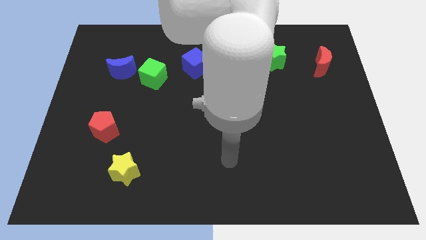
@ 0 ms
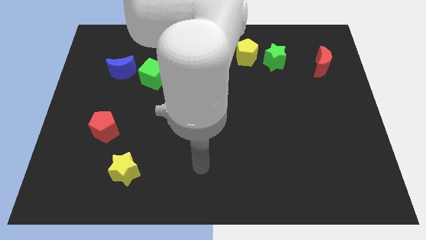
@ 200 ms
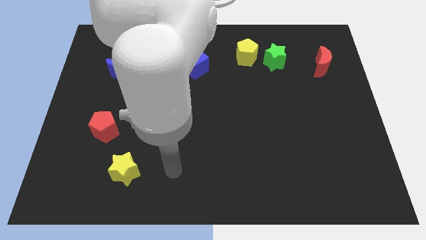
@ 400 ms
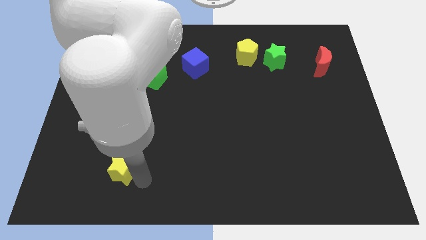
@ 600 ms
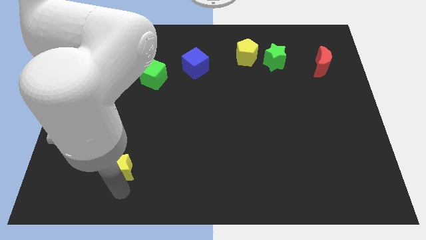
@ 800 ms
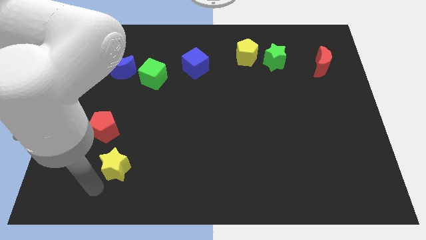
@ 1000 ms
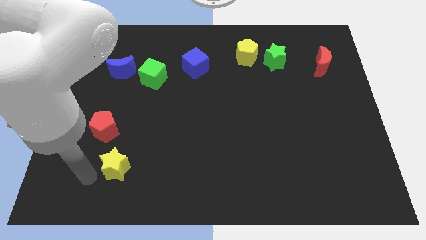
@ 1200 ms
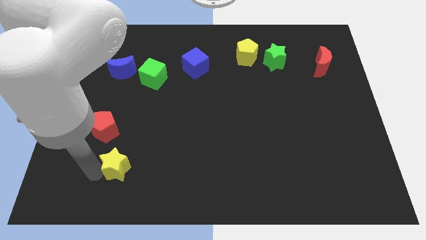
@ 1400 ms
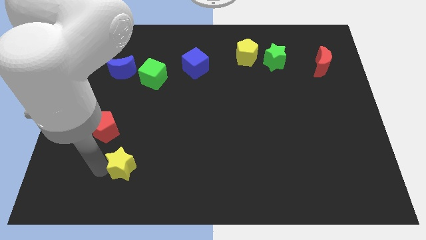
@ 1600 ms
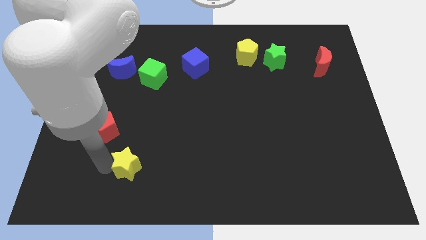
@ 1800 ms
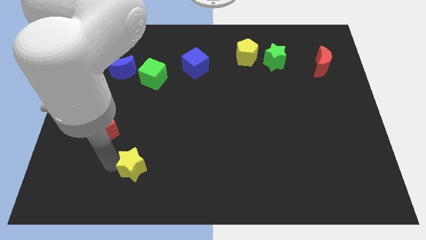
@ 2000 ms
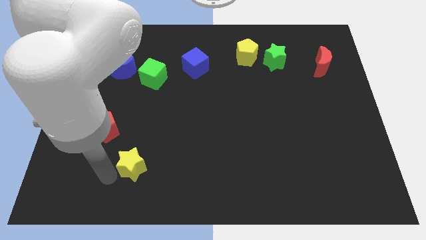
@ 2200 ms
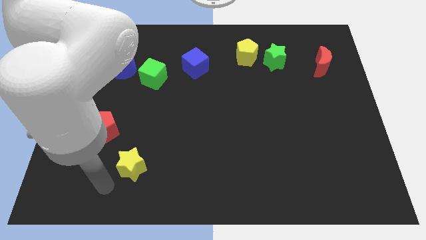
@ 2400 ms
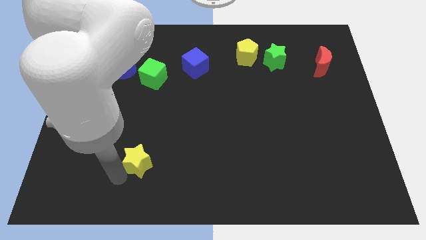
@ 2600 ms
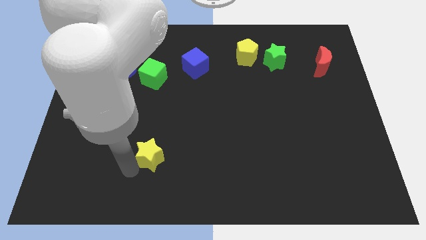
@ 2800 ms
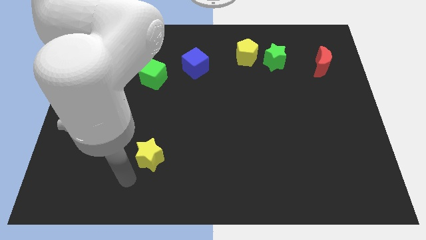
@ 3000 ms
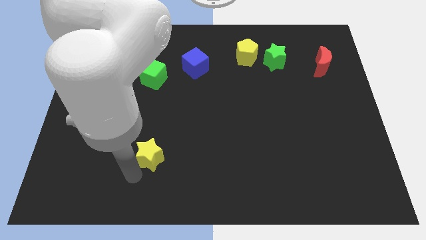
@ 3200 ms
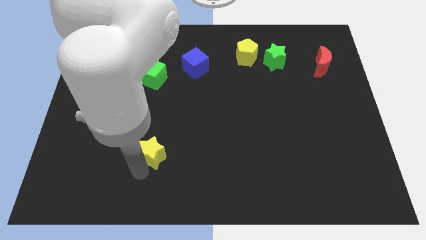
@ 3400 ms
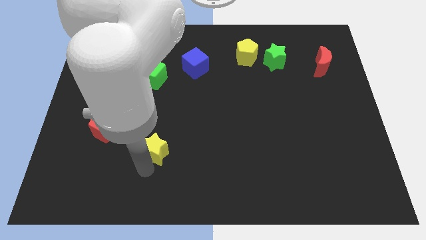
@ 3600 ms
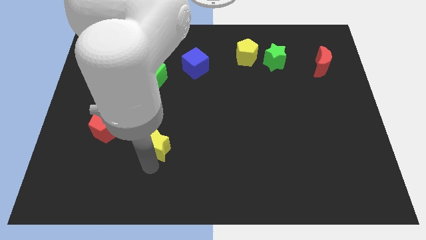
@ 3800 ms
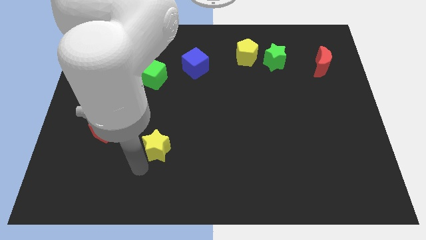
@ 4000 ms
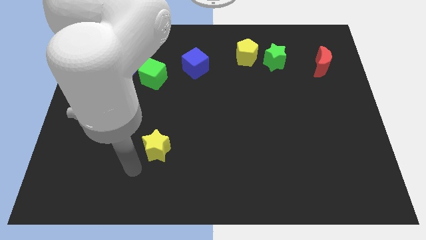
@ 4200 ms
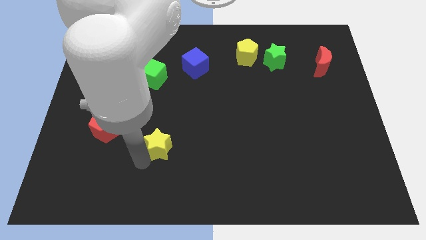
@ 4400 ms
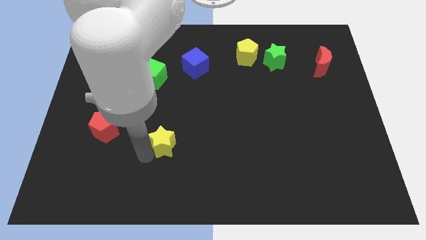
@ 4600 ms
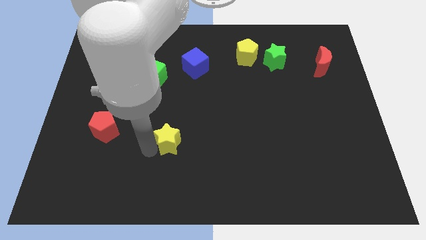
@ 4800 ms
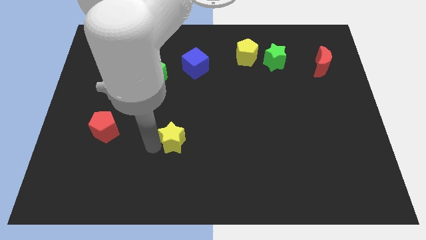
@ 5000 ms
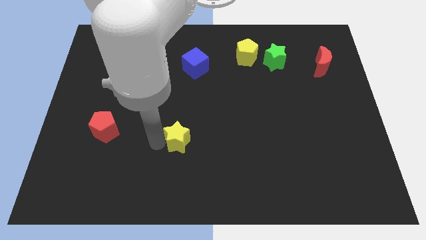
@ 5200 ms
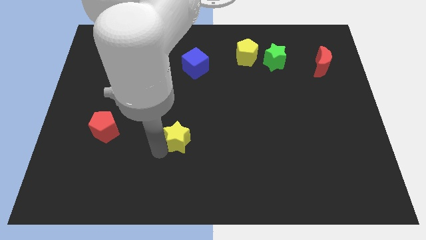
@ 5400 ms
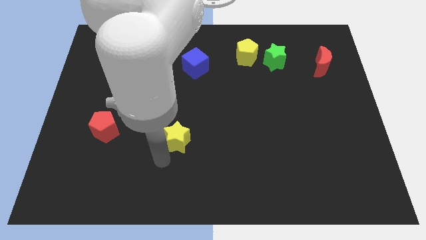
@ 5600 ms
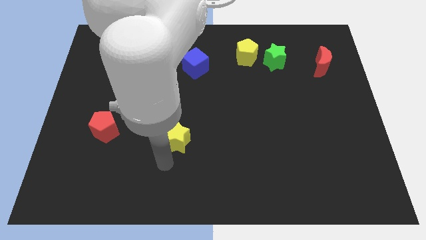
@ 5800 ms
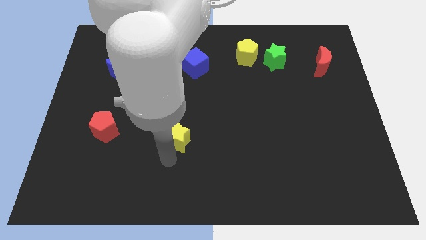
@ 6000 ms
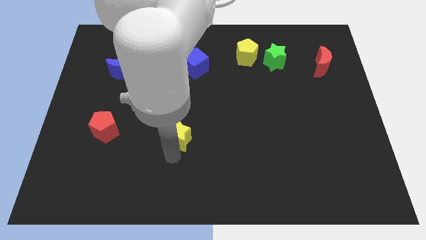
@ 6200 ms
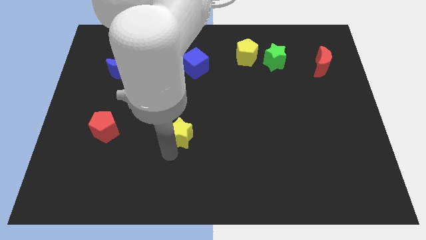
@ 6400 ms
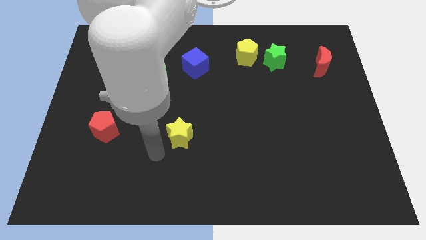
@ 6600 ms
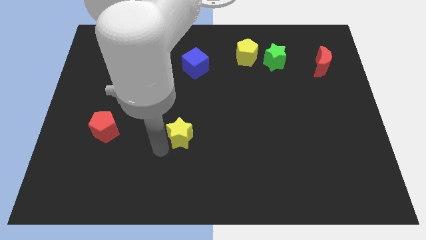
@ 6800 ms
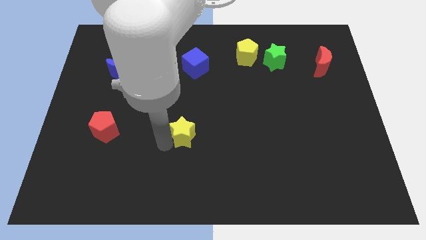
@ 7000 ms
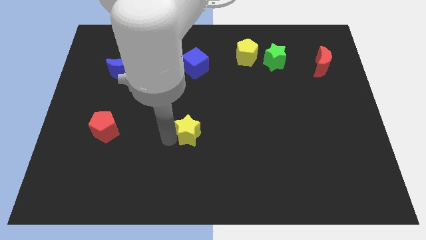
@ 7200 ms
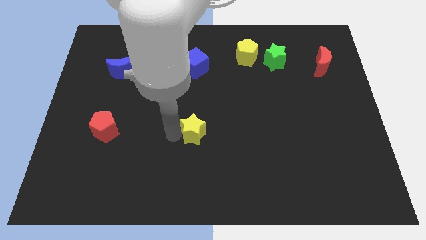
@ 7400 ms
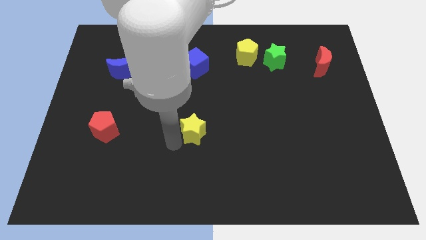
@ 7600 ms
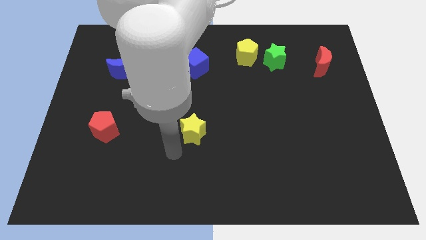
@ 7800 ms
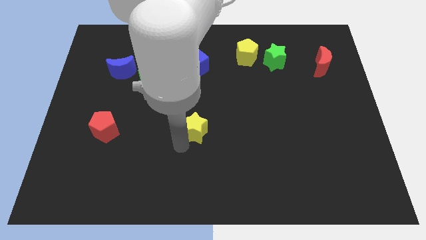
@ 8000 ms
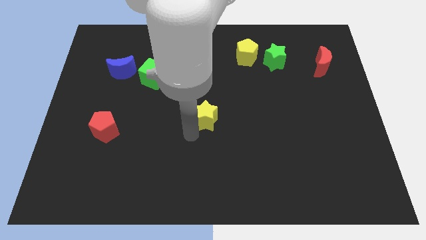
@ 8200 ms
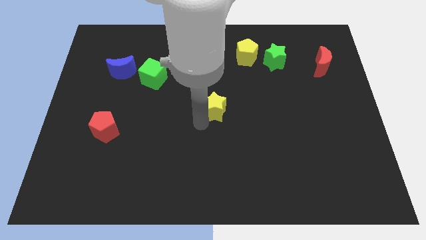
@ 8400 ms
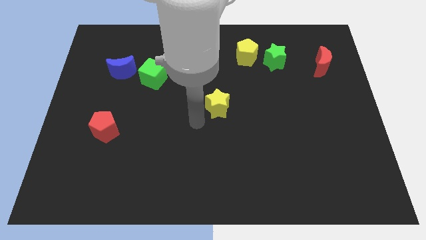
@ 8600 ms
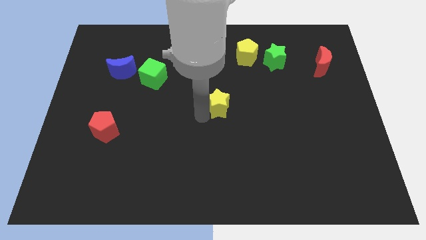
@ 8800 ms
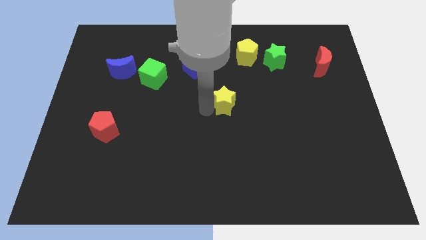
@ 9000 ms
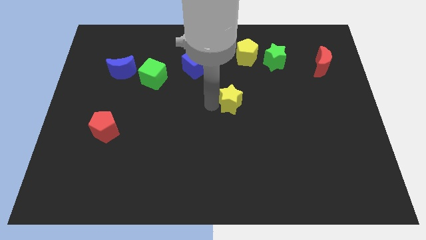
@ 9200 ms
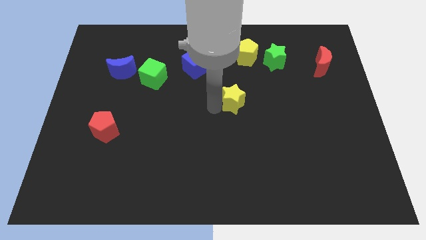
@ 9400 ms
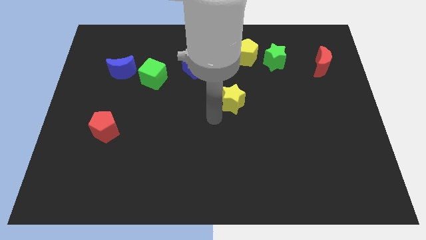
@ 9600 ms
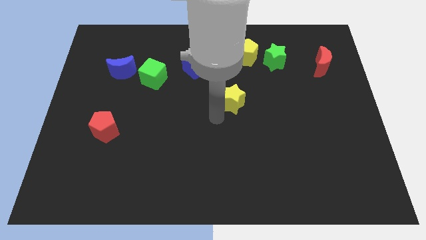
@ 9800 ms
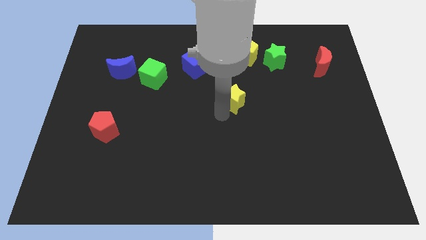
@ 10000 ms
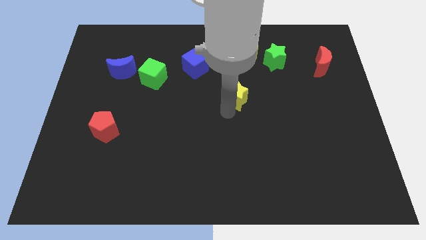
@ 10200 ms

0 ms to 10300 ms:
move the yellow star to the bottom of the yellow pentagon

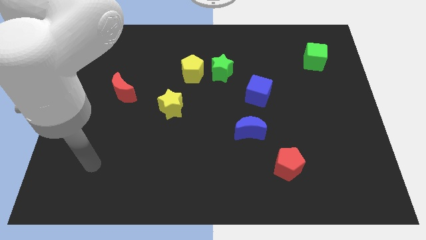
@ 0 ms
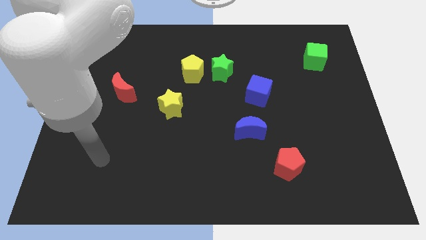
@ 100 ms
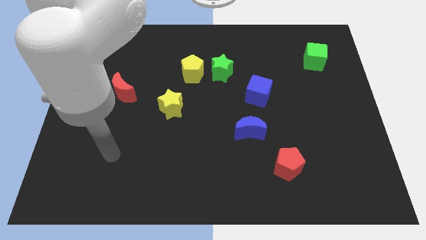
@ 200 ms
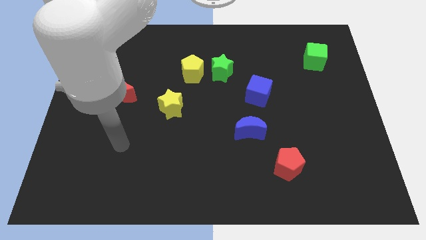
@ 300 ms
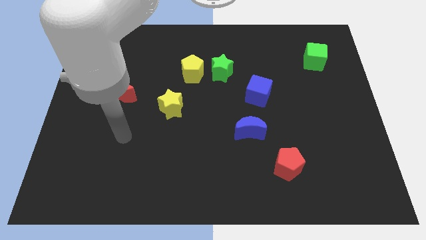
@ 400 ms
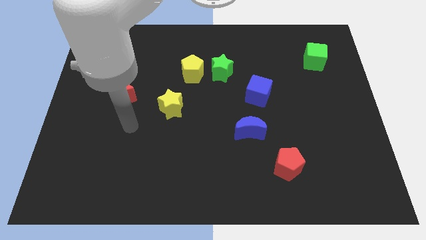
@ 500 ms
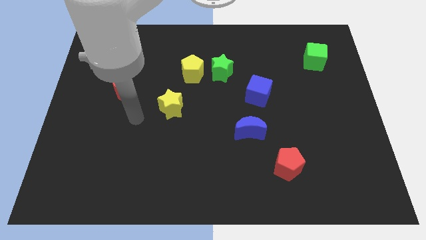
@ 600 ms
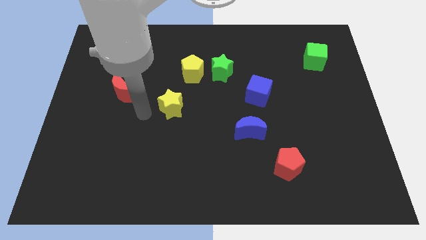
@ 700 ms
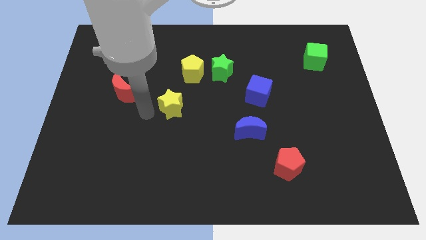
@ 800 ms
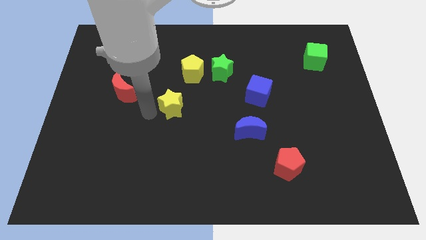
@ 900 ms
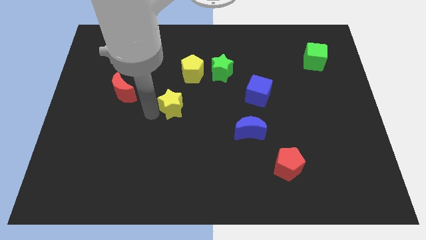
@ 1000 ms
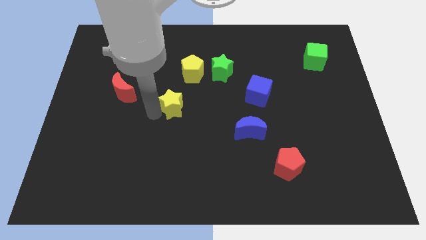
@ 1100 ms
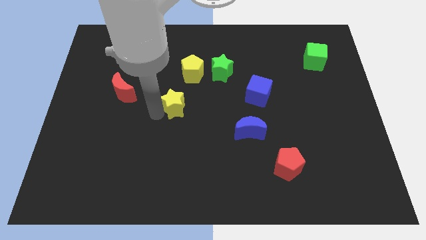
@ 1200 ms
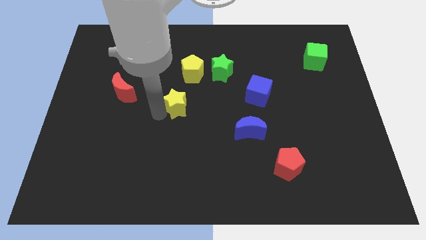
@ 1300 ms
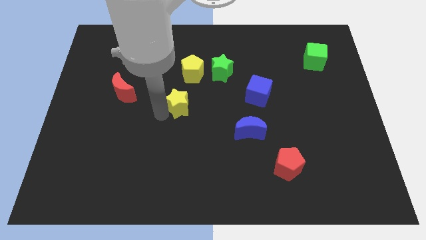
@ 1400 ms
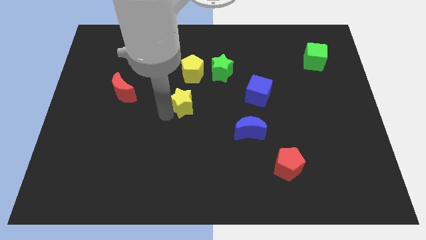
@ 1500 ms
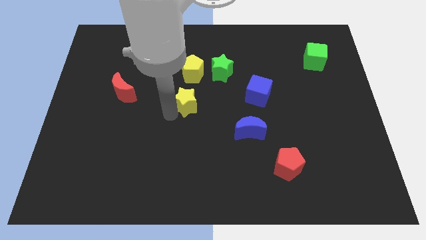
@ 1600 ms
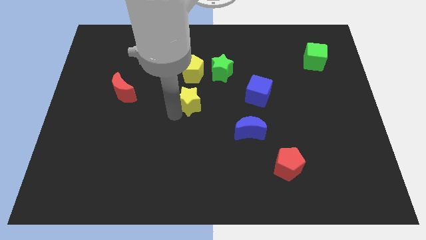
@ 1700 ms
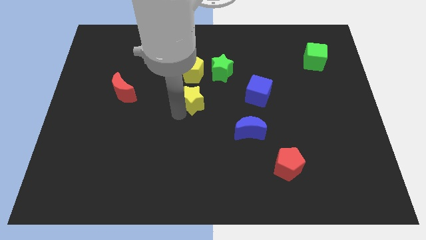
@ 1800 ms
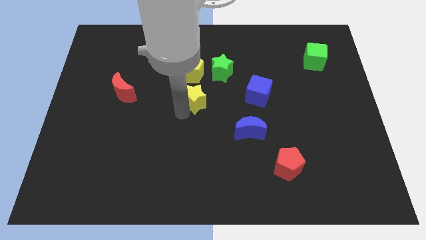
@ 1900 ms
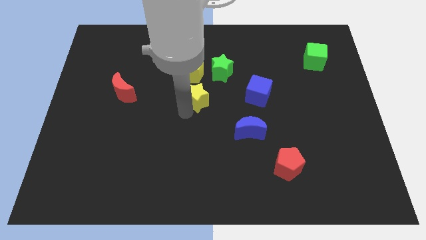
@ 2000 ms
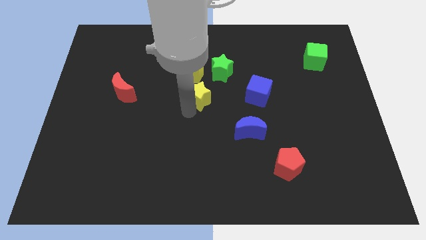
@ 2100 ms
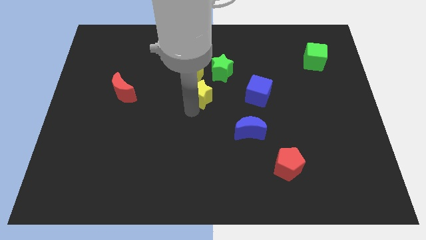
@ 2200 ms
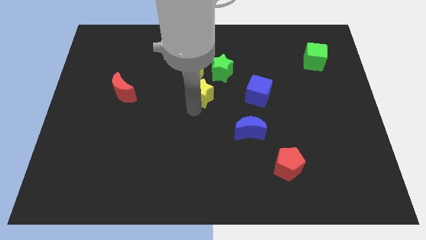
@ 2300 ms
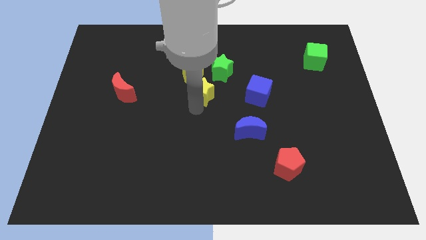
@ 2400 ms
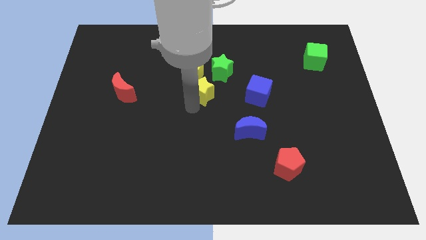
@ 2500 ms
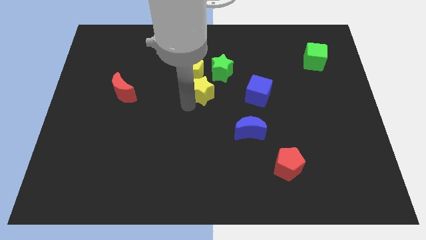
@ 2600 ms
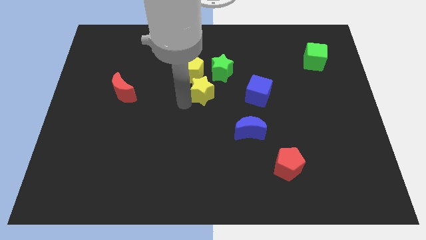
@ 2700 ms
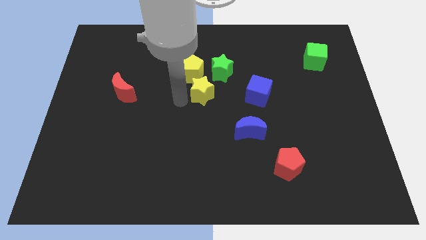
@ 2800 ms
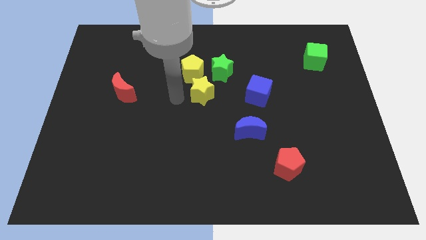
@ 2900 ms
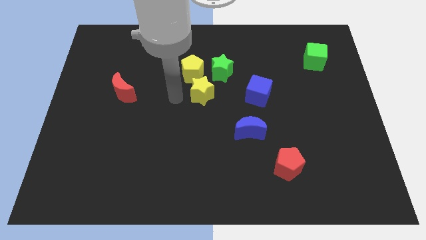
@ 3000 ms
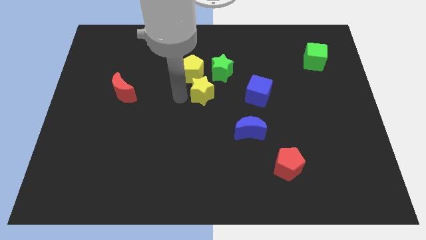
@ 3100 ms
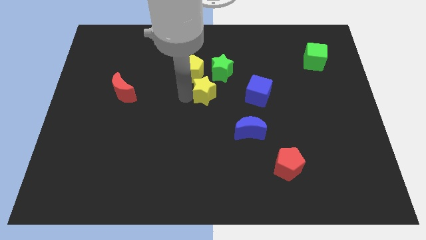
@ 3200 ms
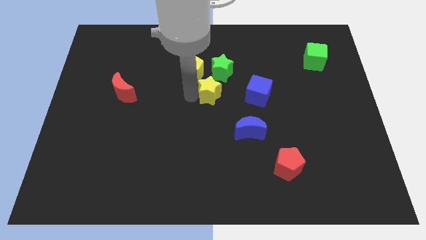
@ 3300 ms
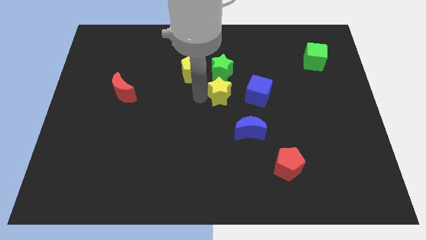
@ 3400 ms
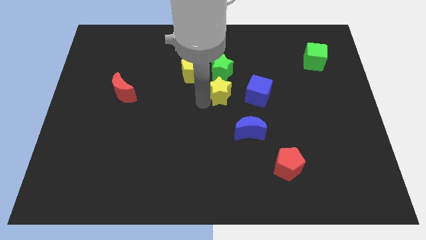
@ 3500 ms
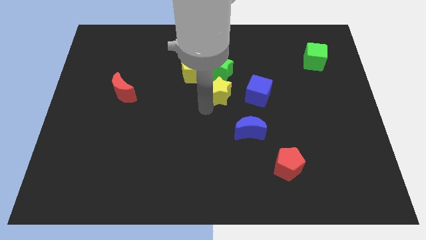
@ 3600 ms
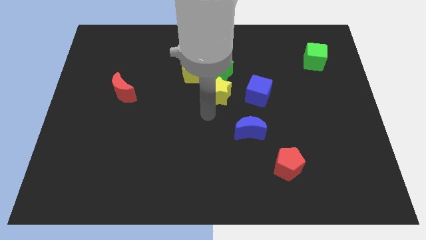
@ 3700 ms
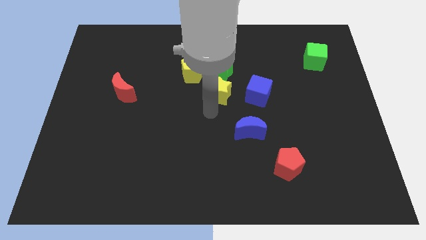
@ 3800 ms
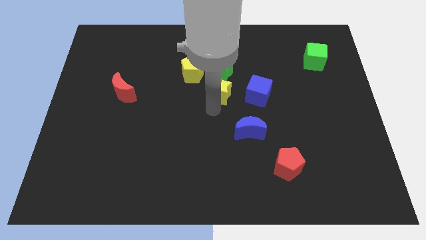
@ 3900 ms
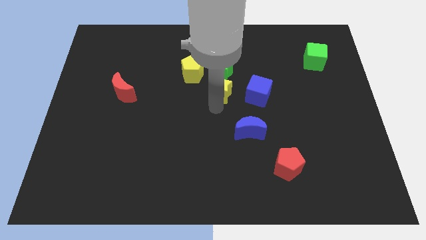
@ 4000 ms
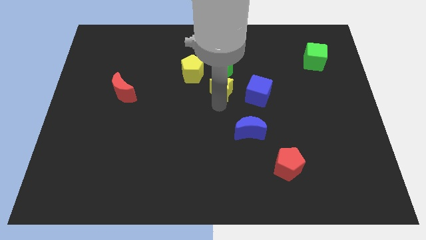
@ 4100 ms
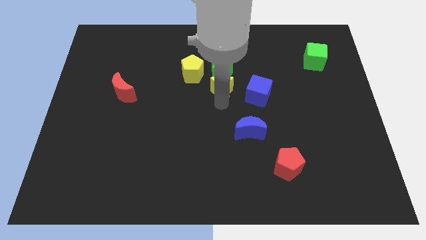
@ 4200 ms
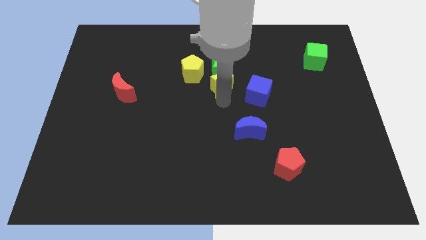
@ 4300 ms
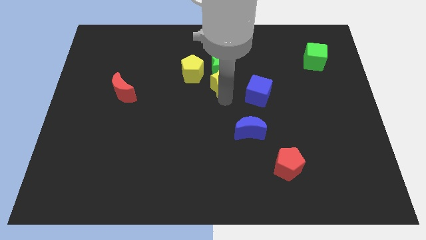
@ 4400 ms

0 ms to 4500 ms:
move the yellow star to the right side of the yellow pentagon
